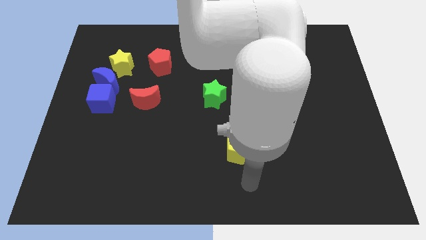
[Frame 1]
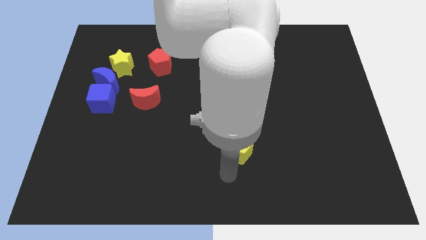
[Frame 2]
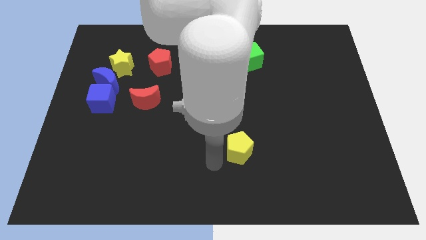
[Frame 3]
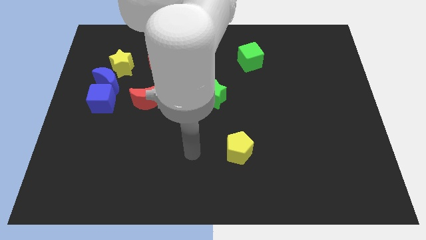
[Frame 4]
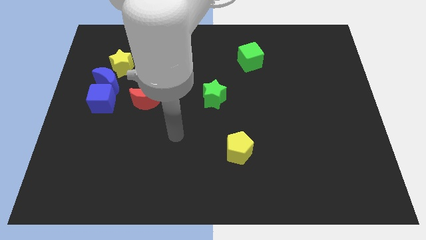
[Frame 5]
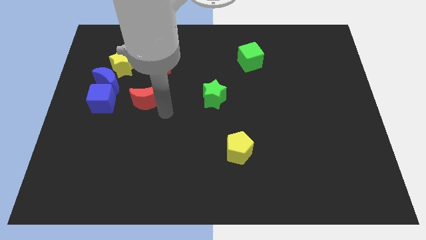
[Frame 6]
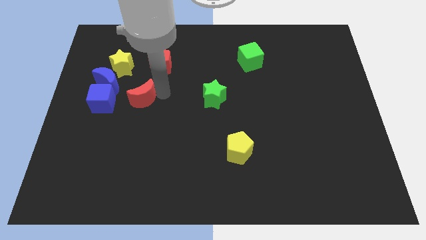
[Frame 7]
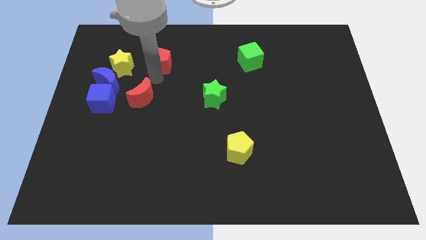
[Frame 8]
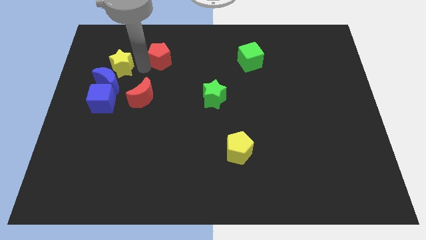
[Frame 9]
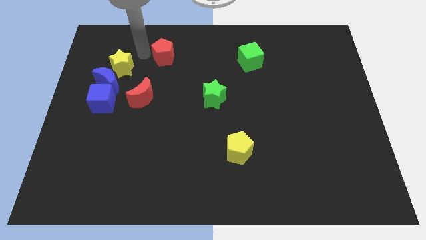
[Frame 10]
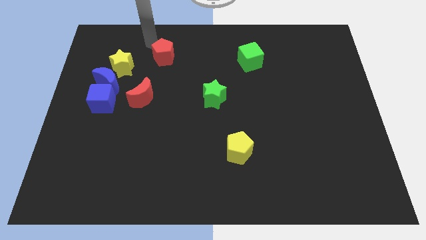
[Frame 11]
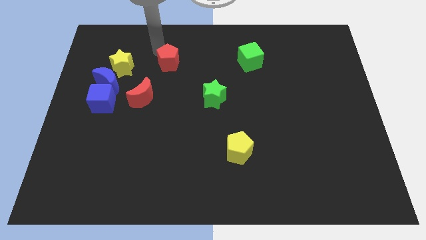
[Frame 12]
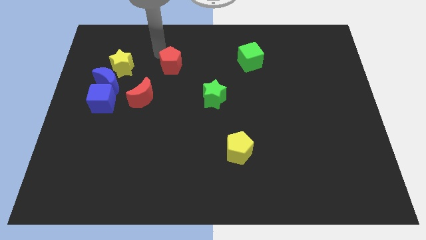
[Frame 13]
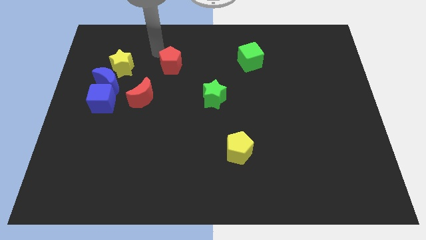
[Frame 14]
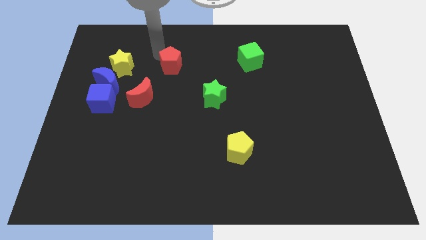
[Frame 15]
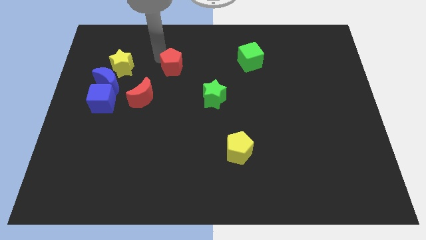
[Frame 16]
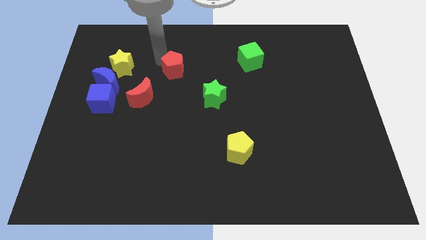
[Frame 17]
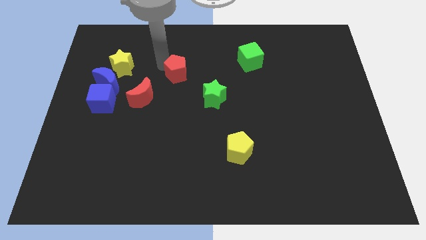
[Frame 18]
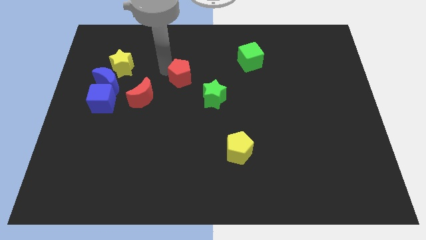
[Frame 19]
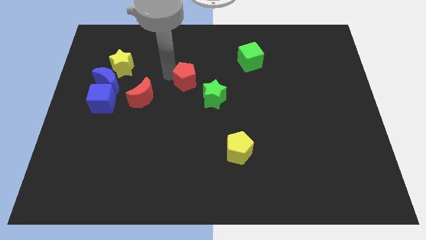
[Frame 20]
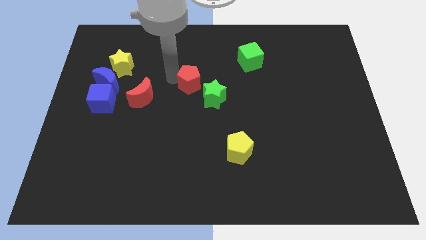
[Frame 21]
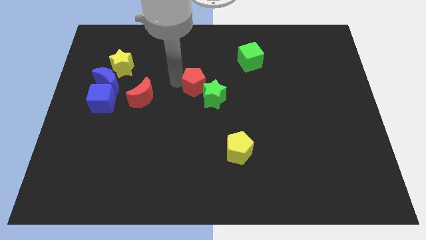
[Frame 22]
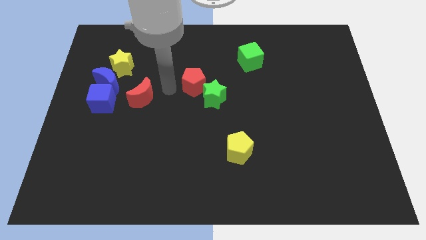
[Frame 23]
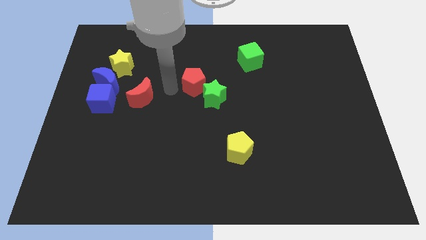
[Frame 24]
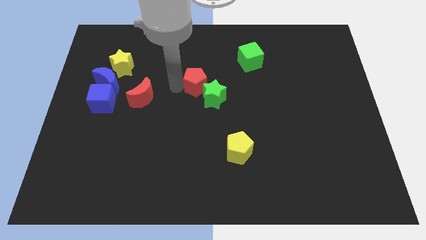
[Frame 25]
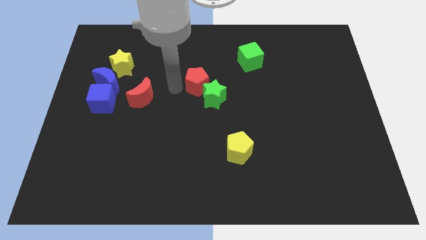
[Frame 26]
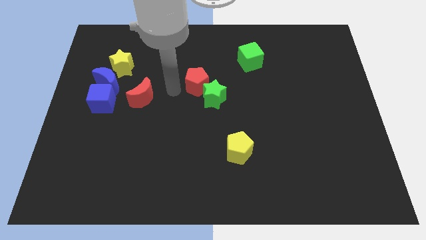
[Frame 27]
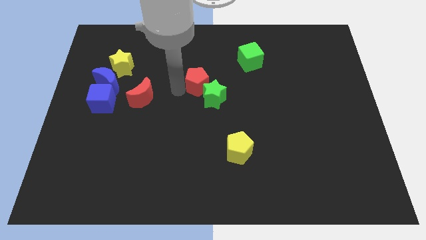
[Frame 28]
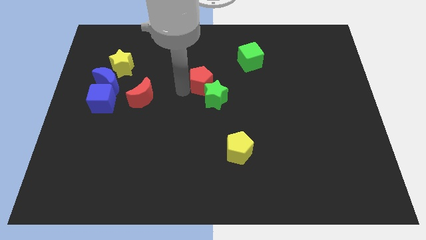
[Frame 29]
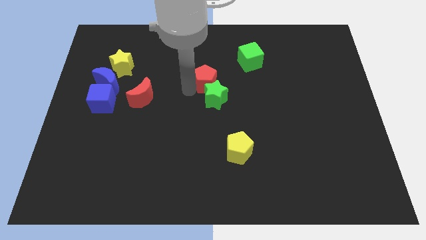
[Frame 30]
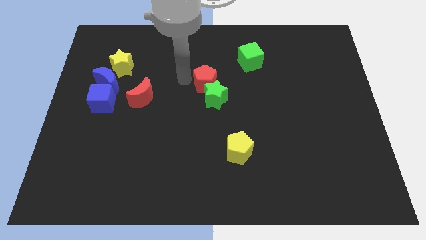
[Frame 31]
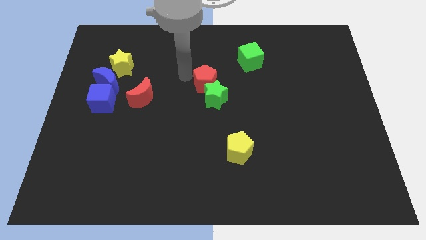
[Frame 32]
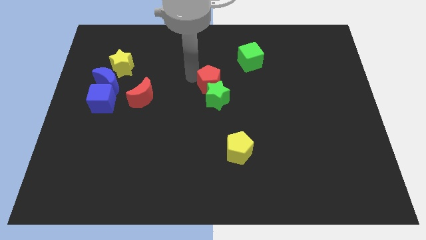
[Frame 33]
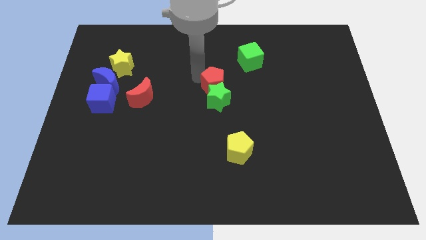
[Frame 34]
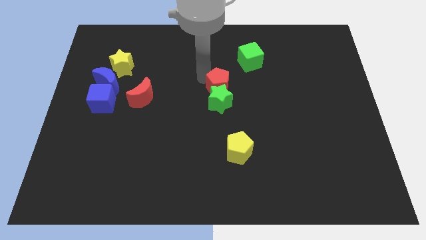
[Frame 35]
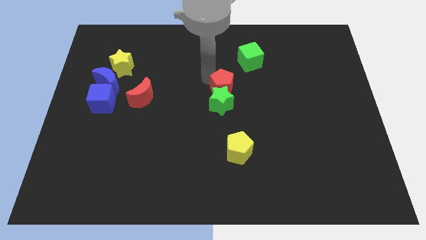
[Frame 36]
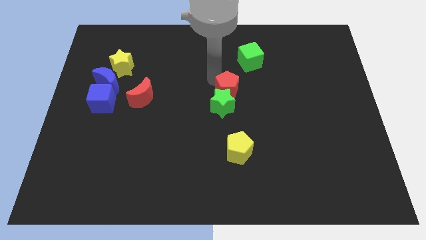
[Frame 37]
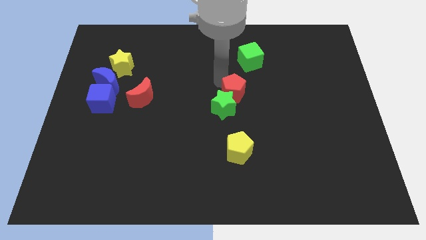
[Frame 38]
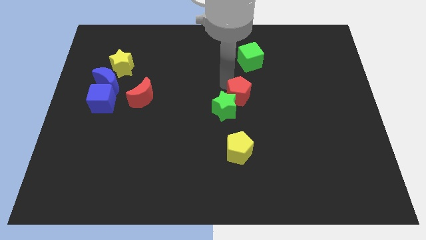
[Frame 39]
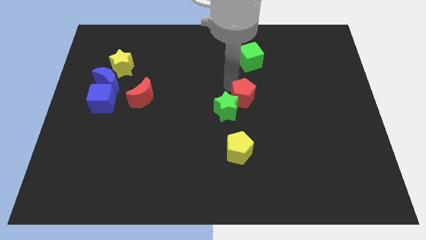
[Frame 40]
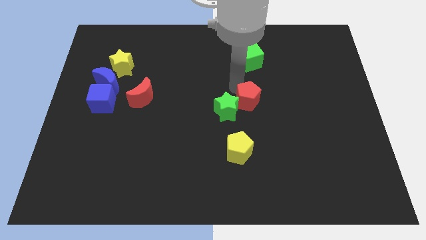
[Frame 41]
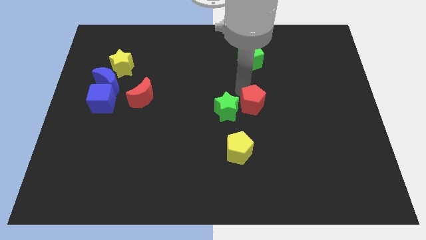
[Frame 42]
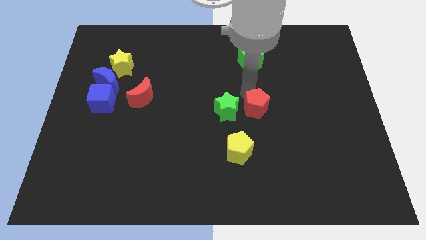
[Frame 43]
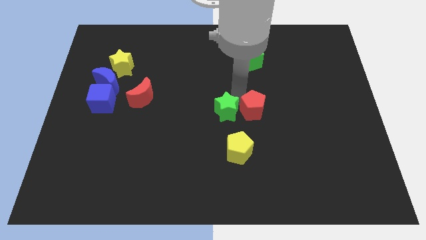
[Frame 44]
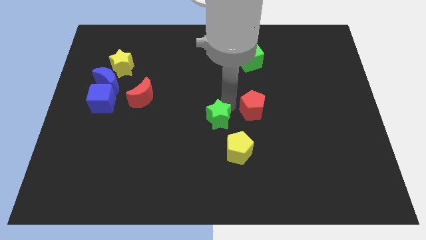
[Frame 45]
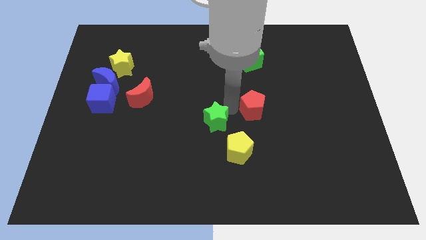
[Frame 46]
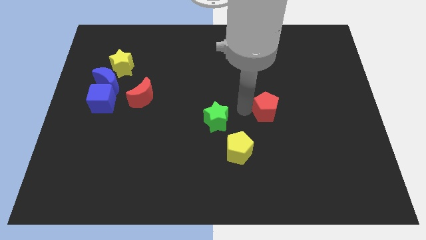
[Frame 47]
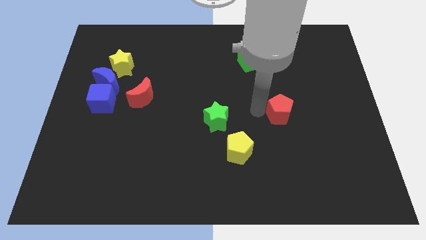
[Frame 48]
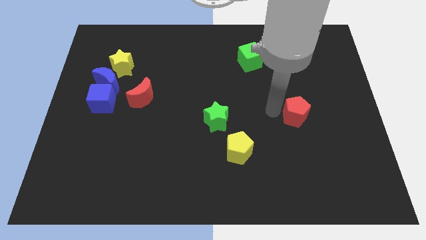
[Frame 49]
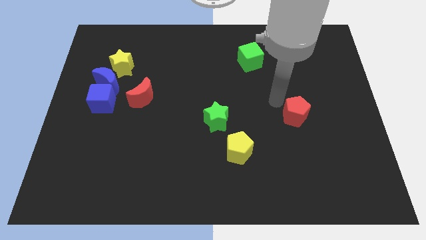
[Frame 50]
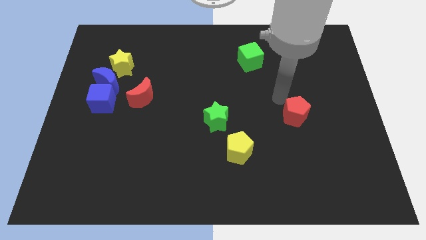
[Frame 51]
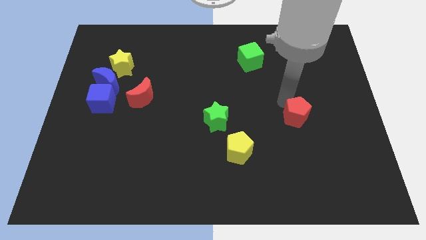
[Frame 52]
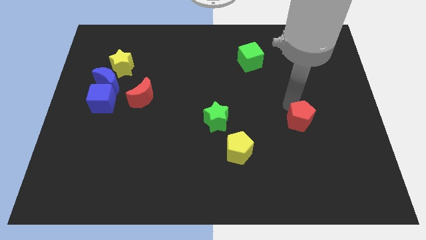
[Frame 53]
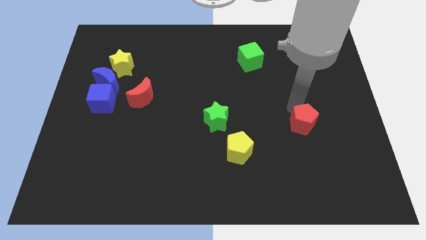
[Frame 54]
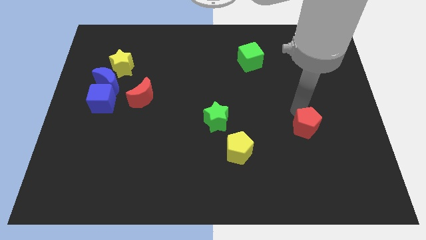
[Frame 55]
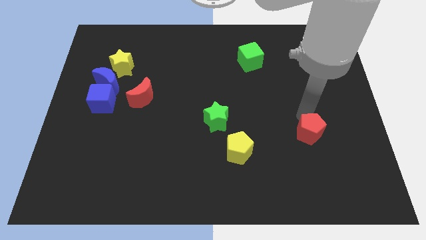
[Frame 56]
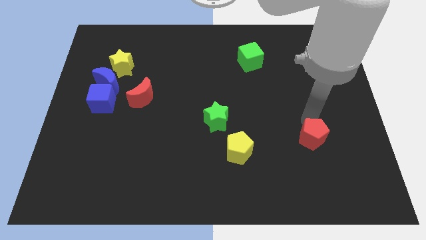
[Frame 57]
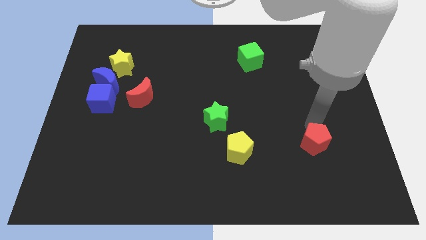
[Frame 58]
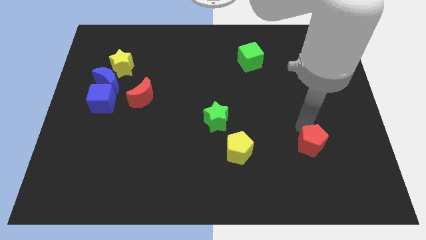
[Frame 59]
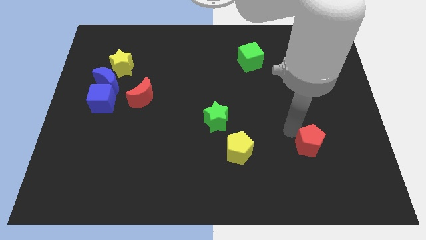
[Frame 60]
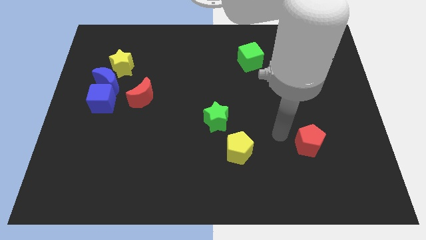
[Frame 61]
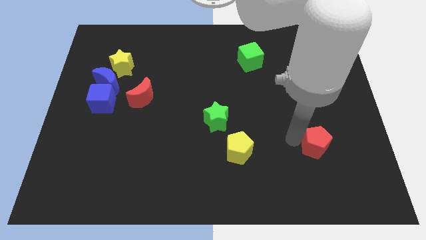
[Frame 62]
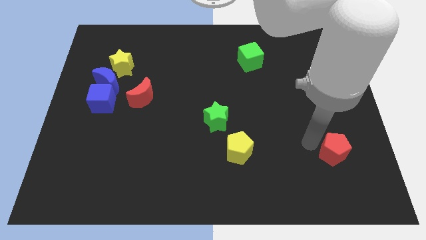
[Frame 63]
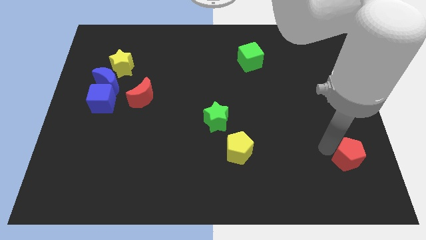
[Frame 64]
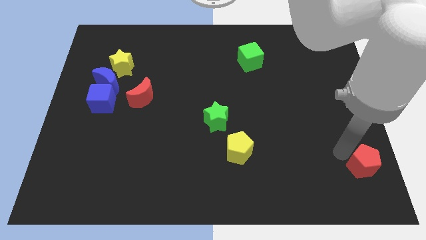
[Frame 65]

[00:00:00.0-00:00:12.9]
move the red pentagon to the bottom right corner
